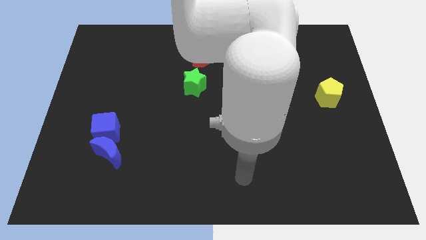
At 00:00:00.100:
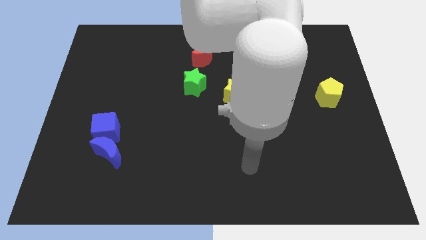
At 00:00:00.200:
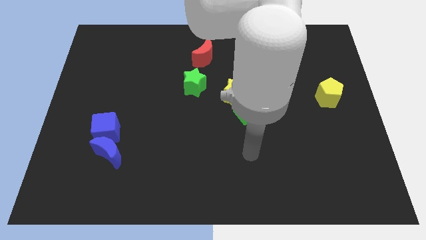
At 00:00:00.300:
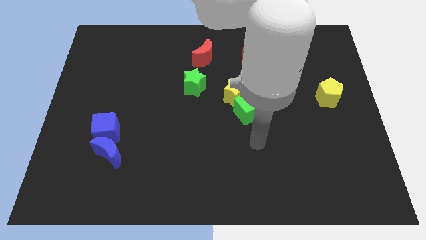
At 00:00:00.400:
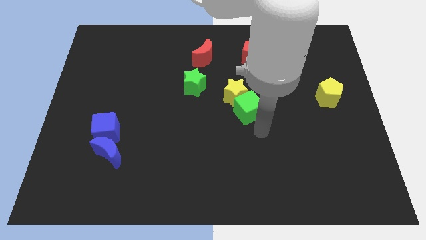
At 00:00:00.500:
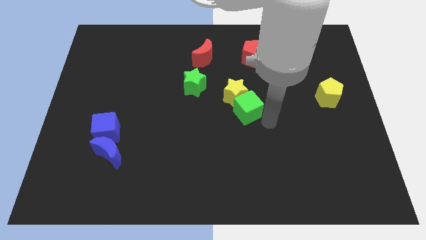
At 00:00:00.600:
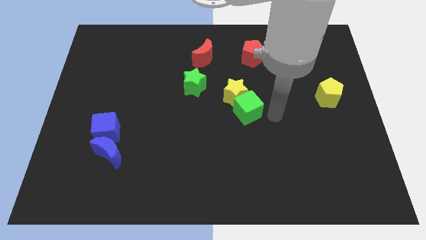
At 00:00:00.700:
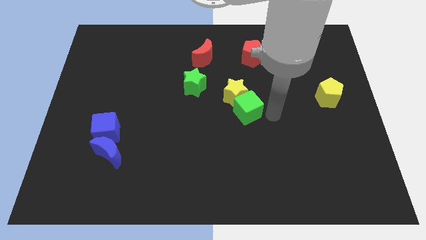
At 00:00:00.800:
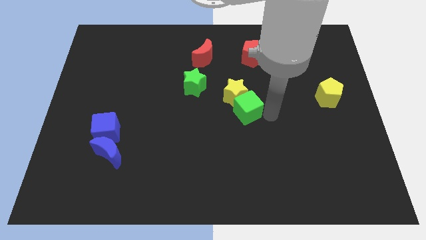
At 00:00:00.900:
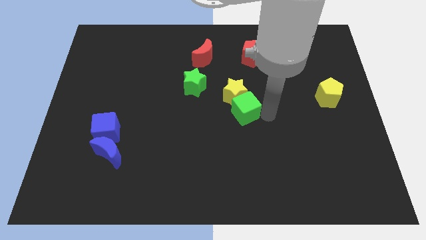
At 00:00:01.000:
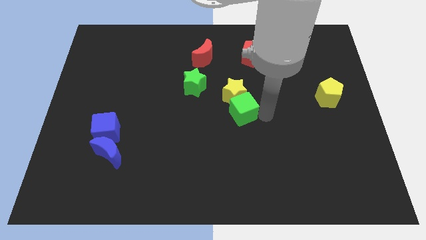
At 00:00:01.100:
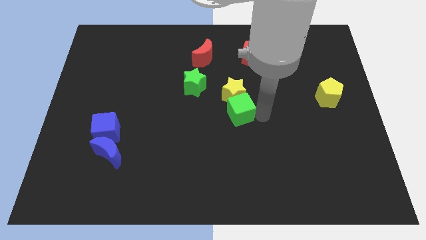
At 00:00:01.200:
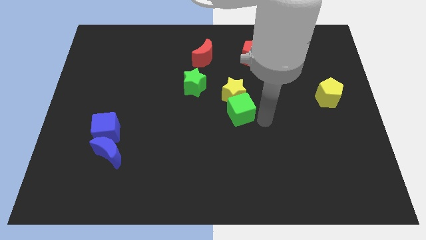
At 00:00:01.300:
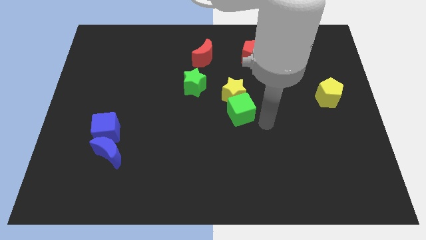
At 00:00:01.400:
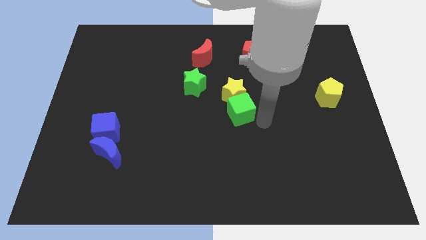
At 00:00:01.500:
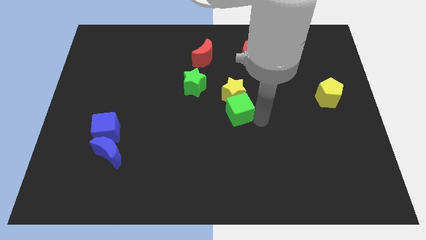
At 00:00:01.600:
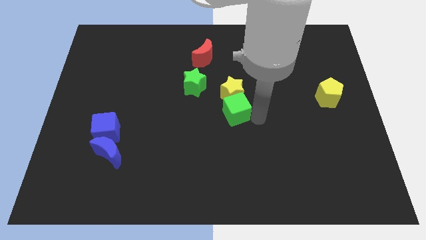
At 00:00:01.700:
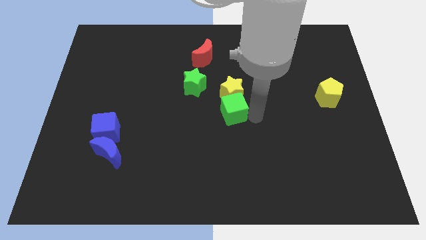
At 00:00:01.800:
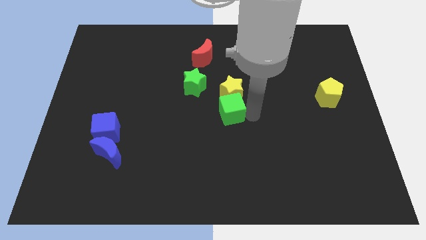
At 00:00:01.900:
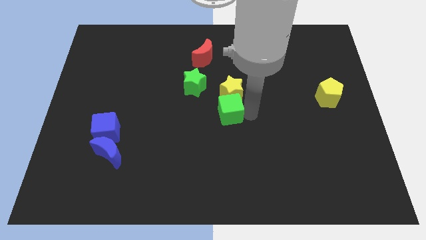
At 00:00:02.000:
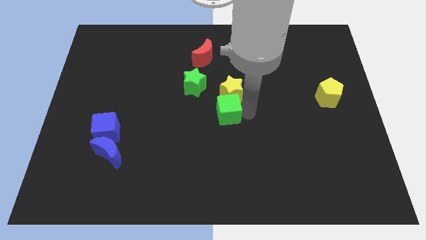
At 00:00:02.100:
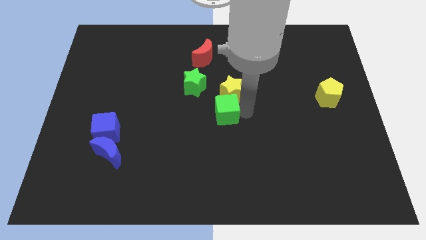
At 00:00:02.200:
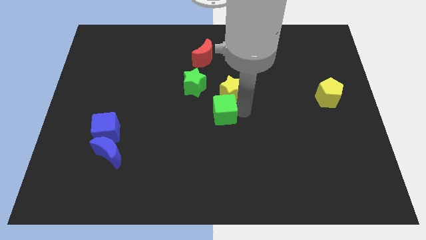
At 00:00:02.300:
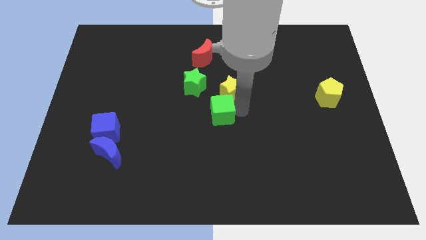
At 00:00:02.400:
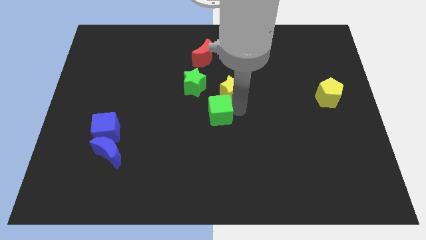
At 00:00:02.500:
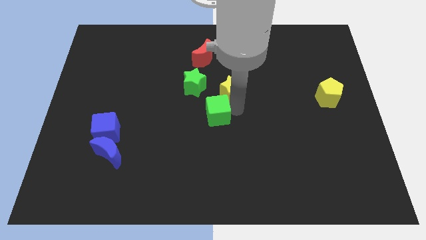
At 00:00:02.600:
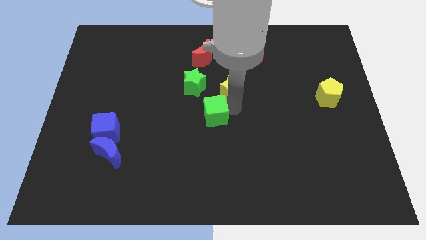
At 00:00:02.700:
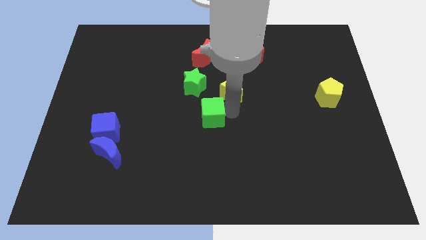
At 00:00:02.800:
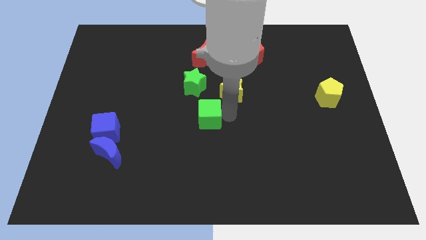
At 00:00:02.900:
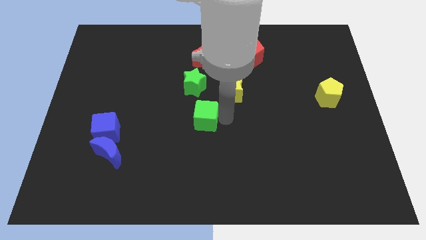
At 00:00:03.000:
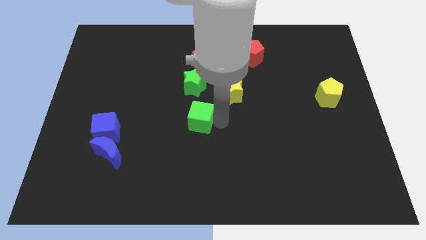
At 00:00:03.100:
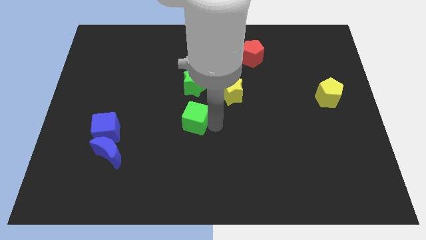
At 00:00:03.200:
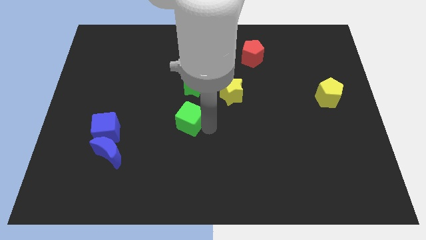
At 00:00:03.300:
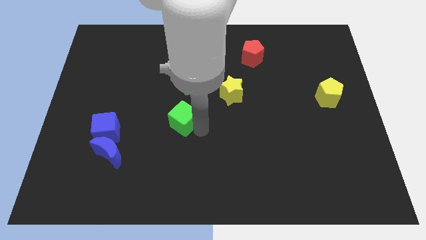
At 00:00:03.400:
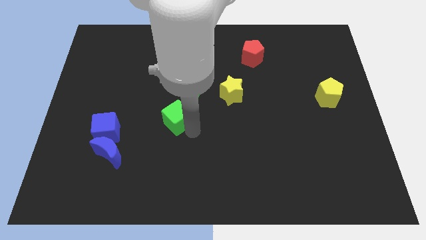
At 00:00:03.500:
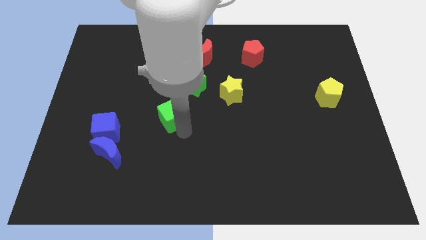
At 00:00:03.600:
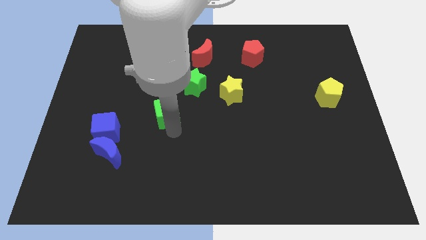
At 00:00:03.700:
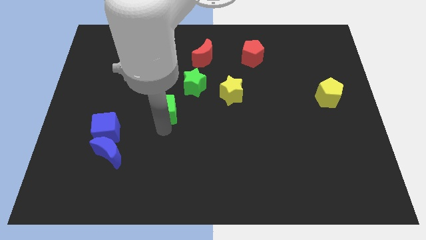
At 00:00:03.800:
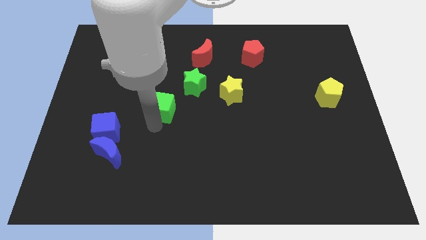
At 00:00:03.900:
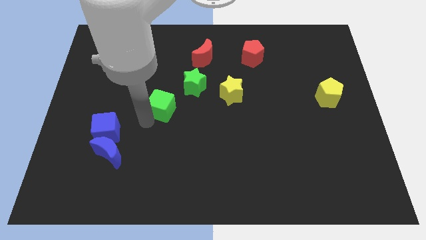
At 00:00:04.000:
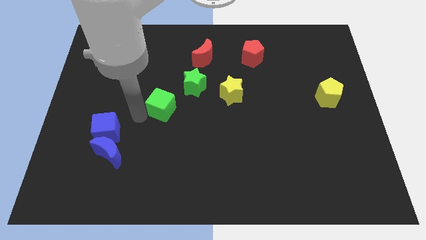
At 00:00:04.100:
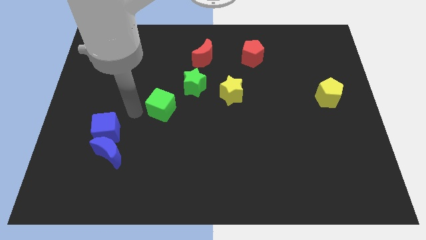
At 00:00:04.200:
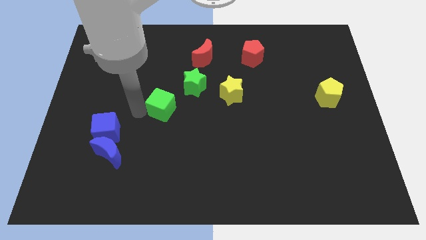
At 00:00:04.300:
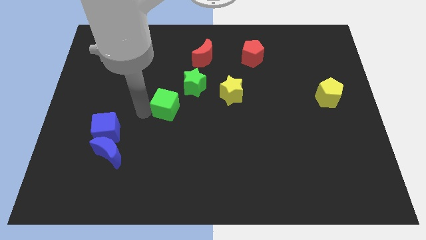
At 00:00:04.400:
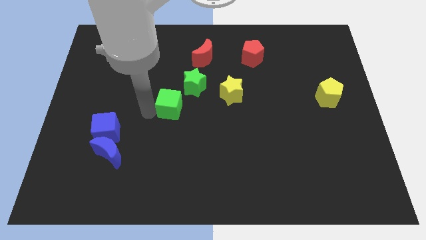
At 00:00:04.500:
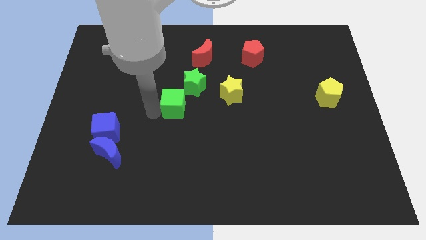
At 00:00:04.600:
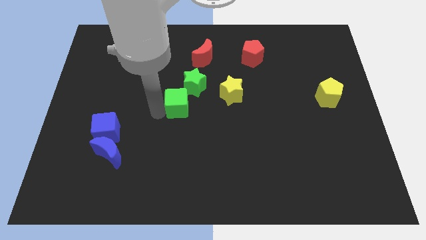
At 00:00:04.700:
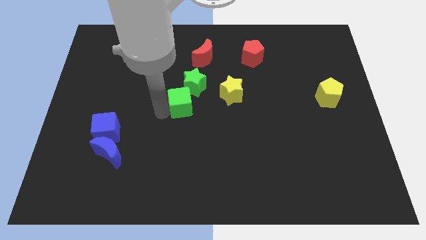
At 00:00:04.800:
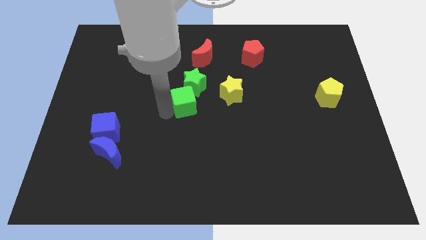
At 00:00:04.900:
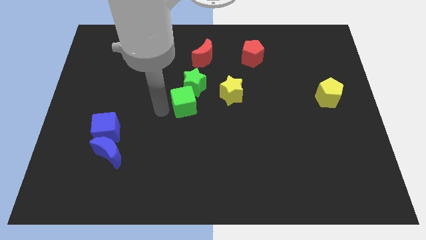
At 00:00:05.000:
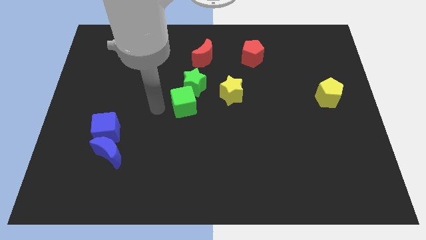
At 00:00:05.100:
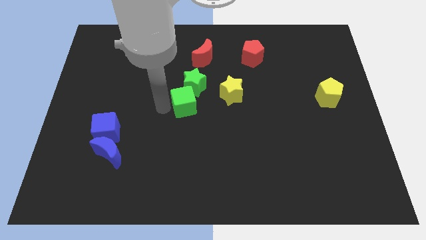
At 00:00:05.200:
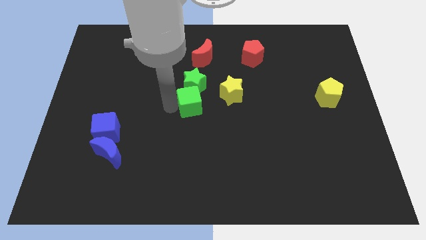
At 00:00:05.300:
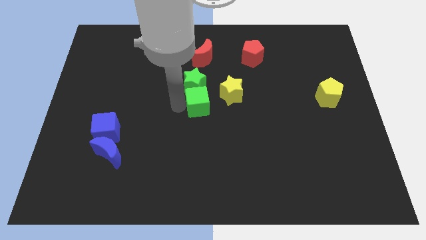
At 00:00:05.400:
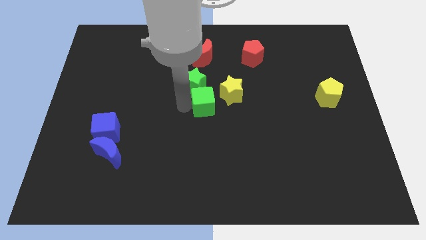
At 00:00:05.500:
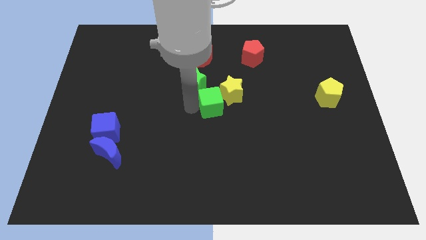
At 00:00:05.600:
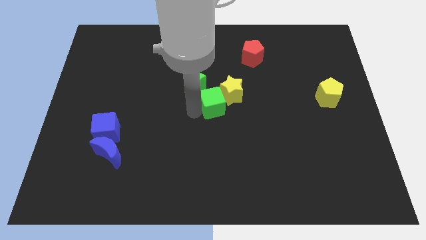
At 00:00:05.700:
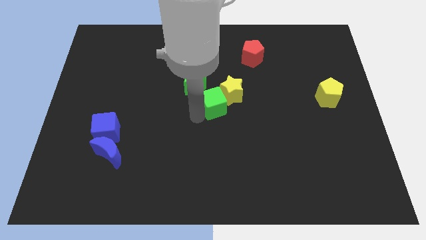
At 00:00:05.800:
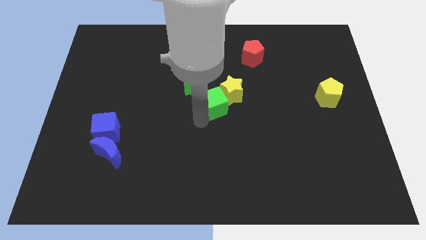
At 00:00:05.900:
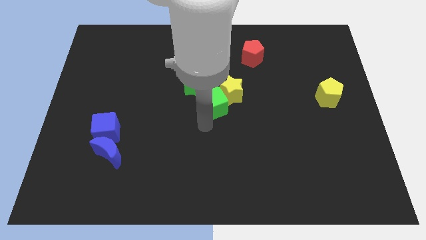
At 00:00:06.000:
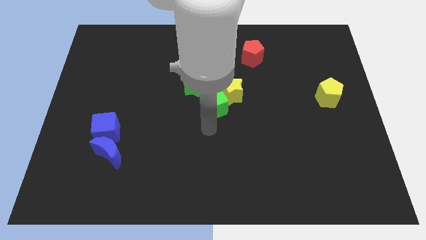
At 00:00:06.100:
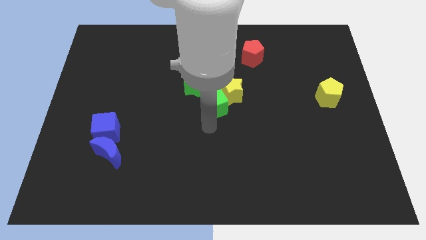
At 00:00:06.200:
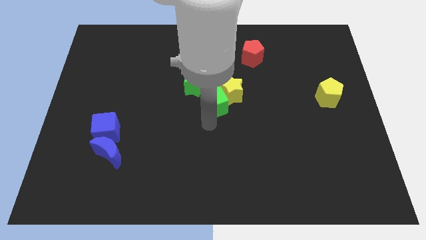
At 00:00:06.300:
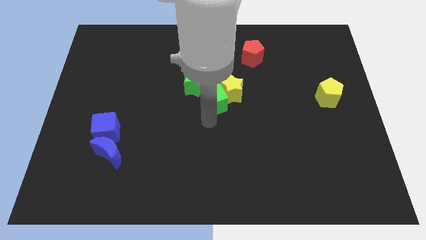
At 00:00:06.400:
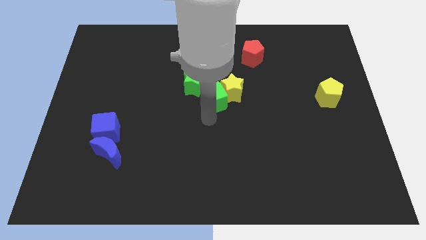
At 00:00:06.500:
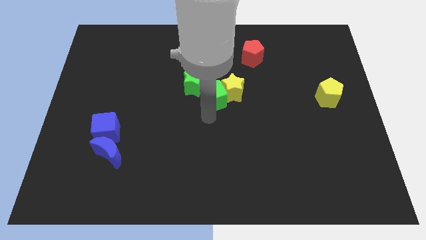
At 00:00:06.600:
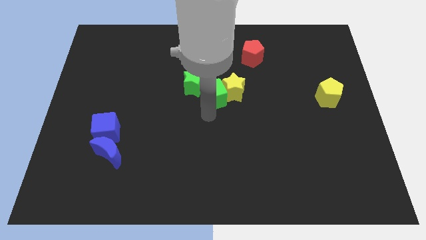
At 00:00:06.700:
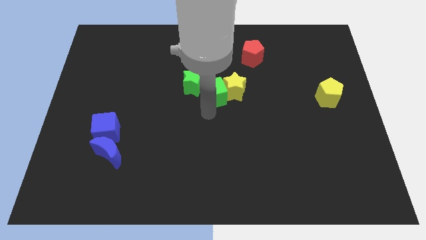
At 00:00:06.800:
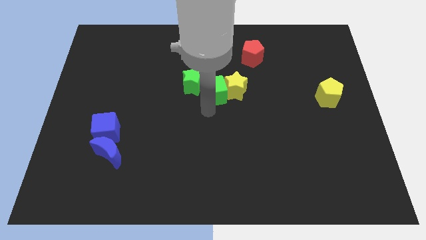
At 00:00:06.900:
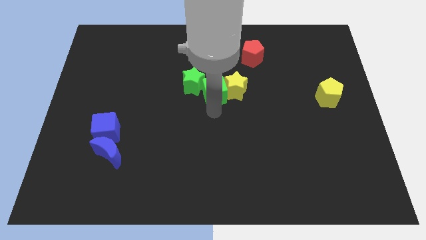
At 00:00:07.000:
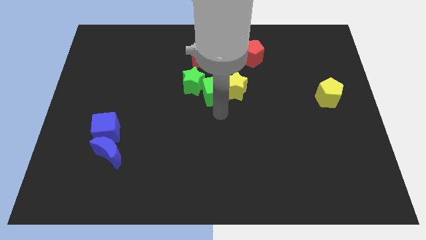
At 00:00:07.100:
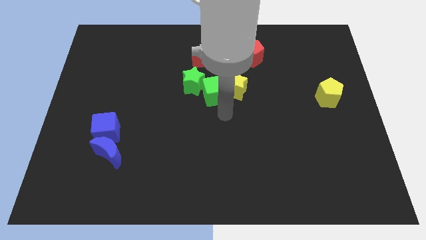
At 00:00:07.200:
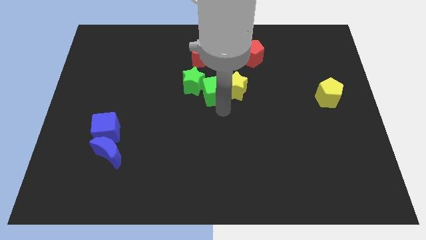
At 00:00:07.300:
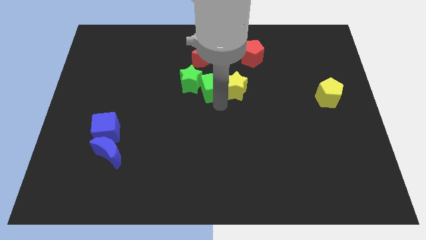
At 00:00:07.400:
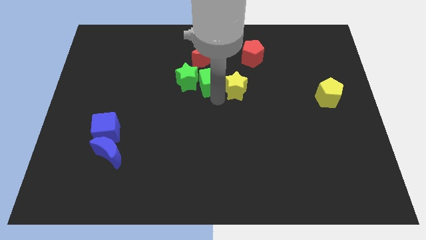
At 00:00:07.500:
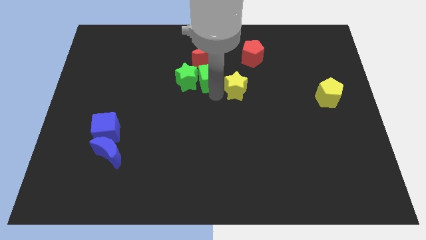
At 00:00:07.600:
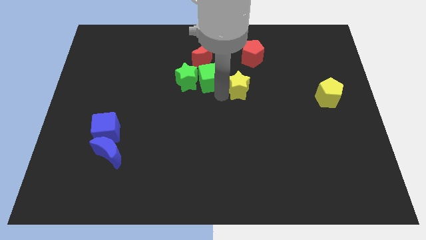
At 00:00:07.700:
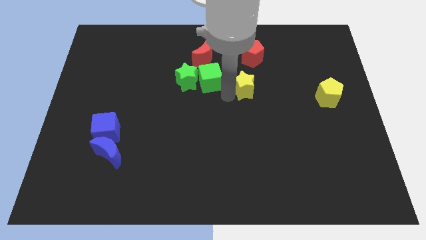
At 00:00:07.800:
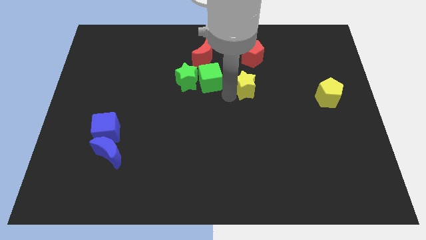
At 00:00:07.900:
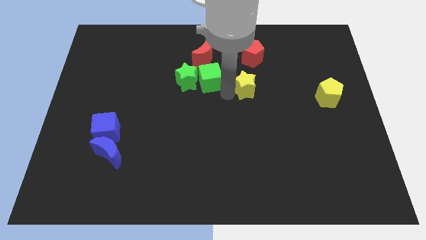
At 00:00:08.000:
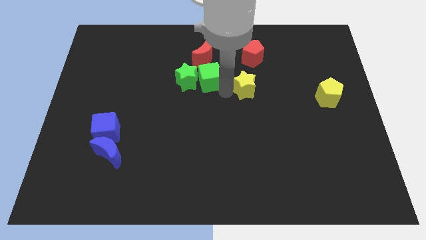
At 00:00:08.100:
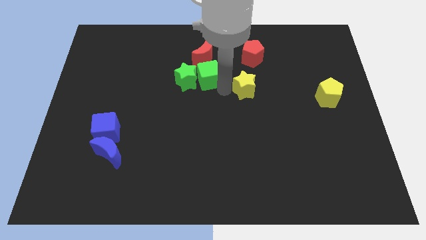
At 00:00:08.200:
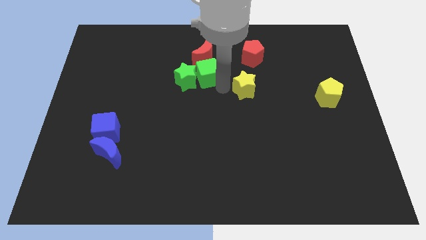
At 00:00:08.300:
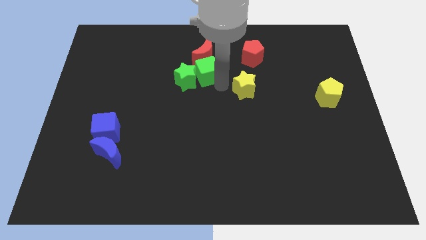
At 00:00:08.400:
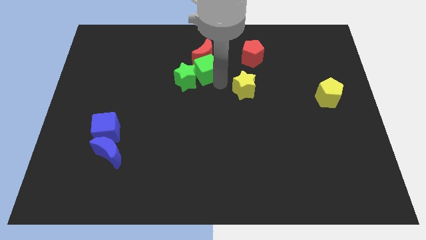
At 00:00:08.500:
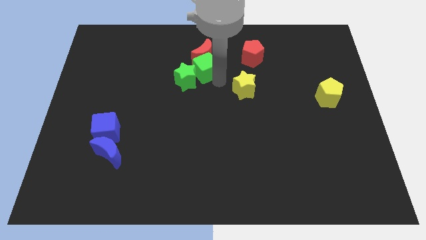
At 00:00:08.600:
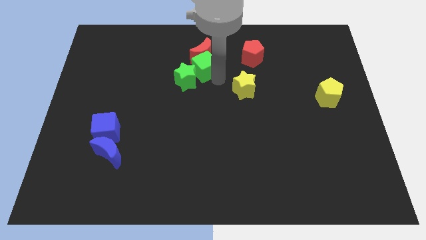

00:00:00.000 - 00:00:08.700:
move the green cube above the green star
